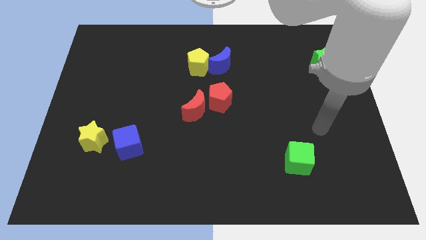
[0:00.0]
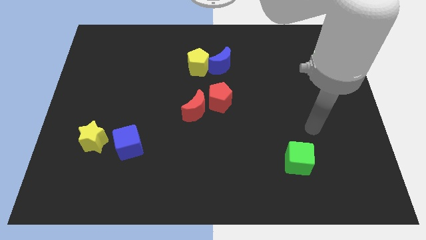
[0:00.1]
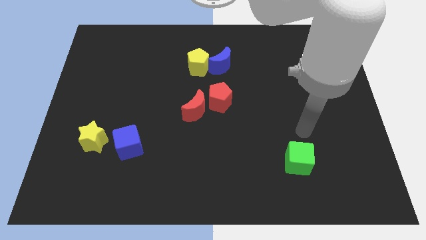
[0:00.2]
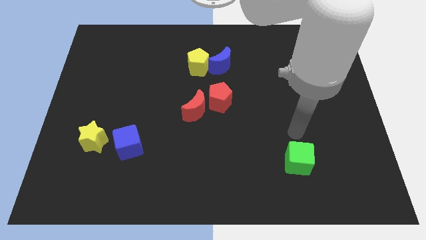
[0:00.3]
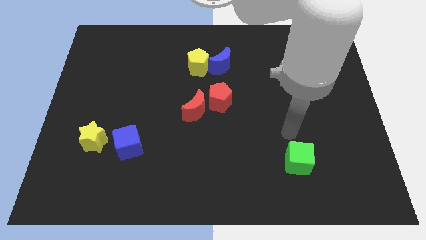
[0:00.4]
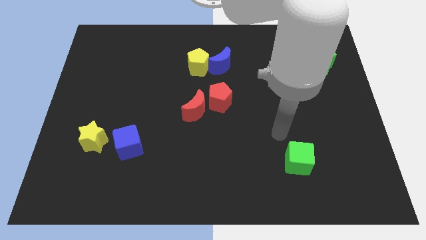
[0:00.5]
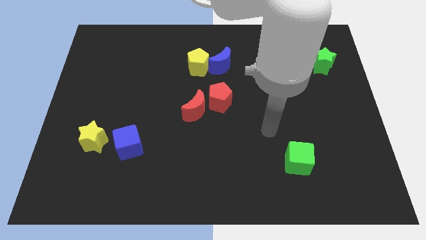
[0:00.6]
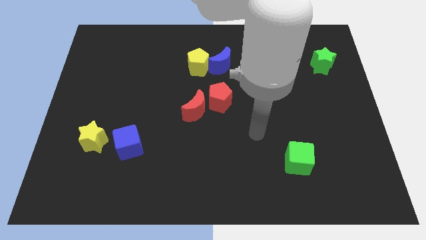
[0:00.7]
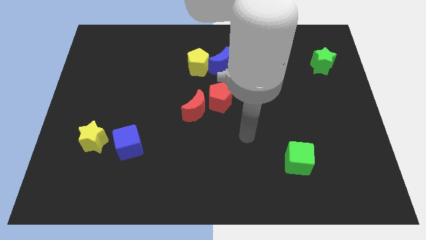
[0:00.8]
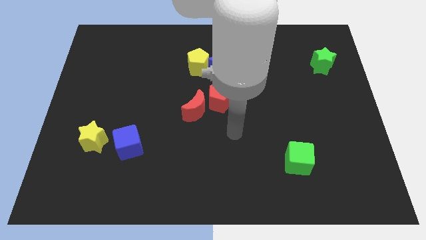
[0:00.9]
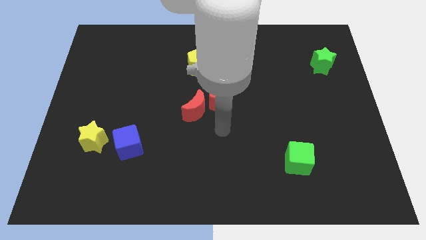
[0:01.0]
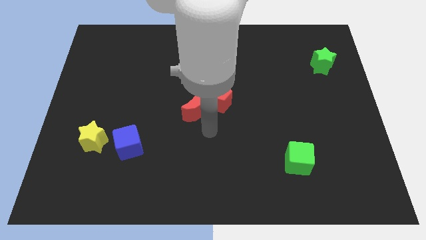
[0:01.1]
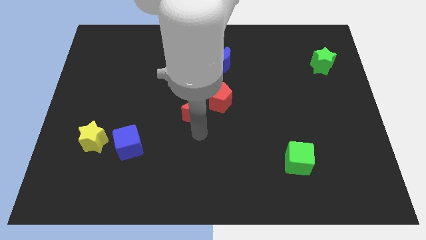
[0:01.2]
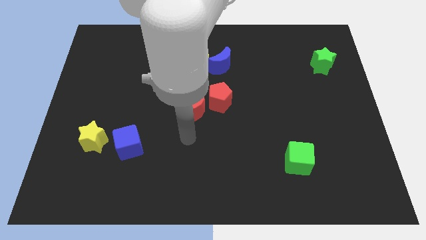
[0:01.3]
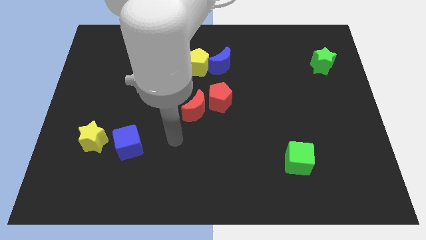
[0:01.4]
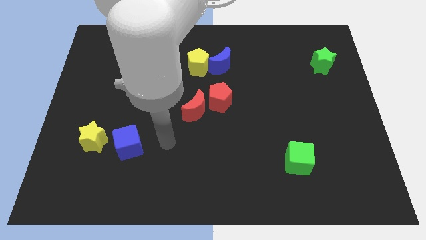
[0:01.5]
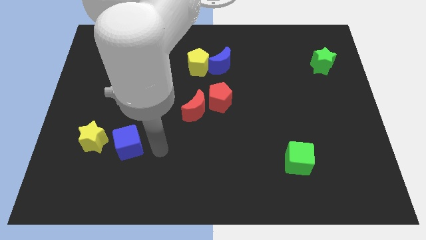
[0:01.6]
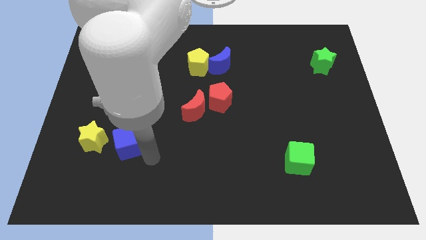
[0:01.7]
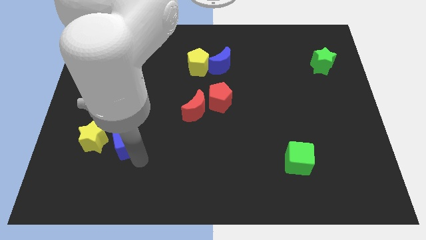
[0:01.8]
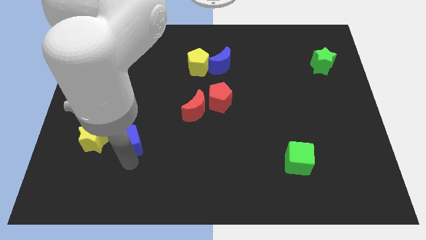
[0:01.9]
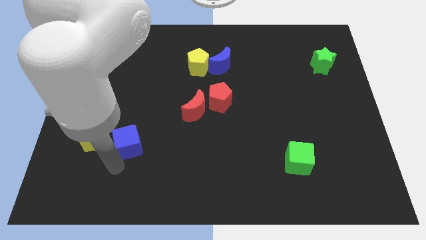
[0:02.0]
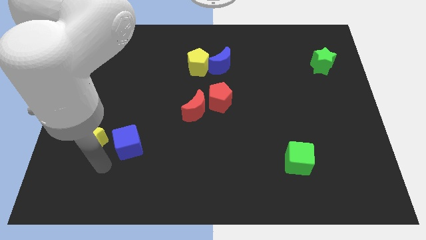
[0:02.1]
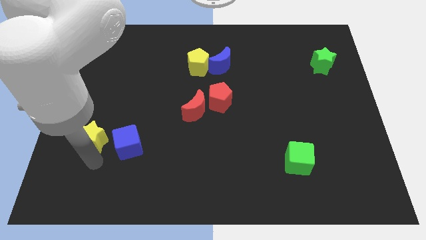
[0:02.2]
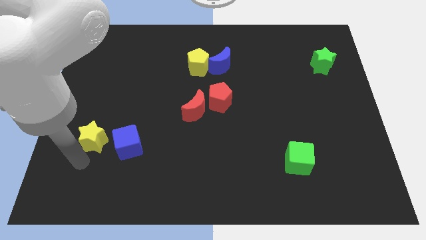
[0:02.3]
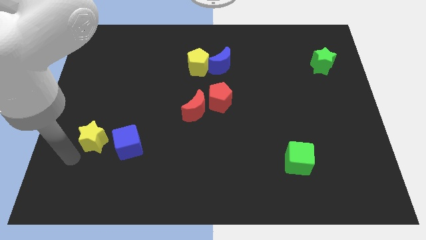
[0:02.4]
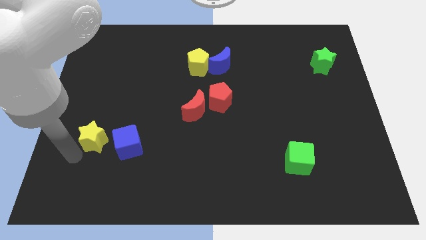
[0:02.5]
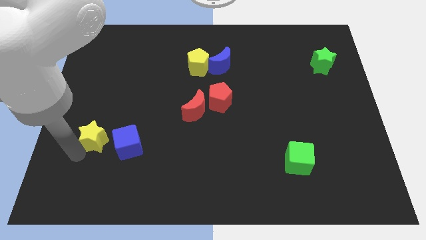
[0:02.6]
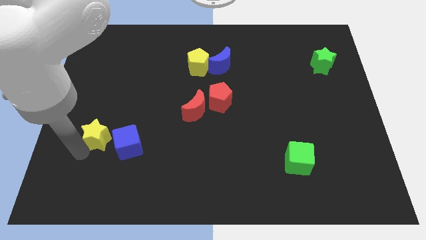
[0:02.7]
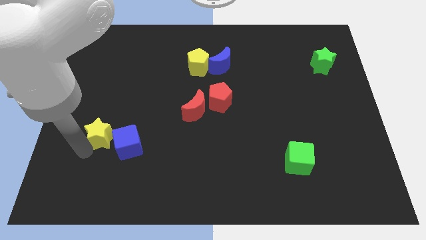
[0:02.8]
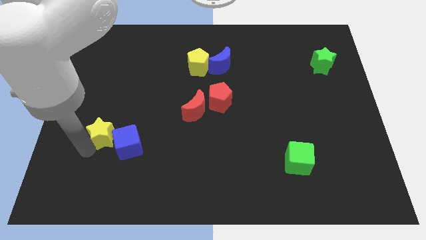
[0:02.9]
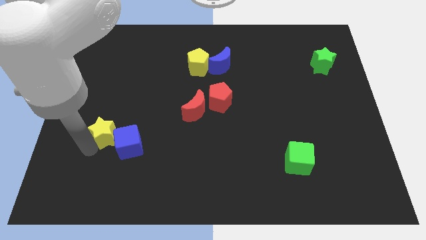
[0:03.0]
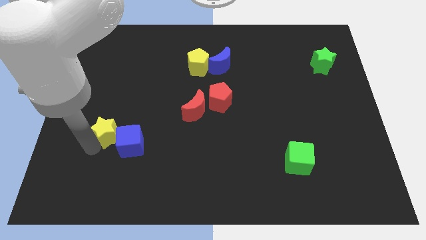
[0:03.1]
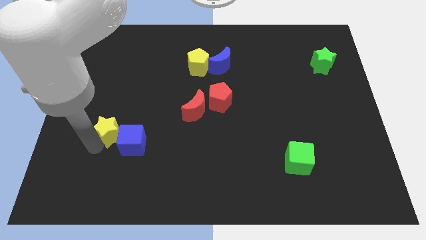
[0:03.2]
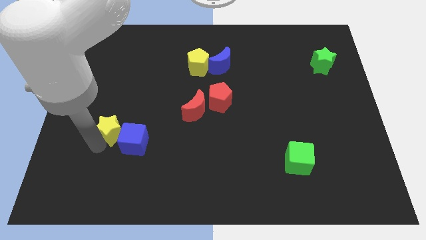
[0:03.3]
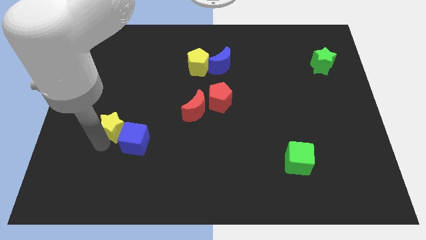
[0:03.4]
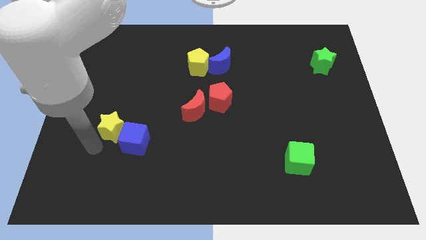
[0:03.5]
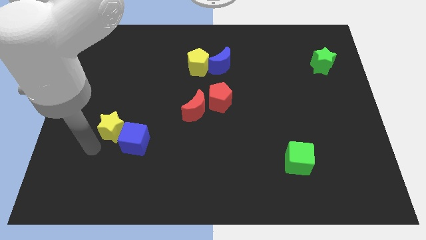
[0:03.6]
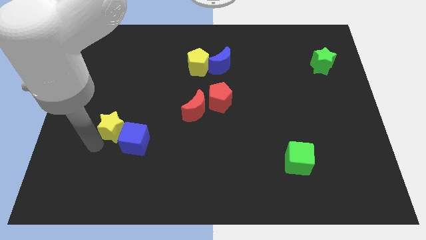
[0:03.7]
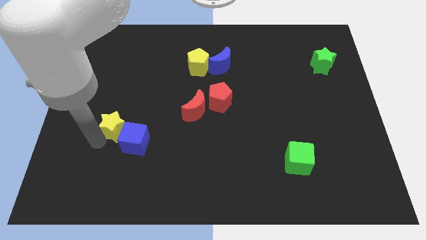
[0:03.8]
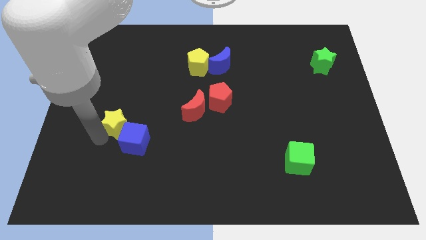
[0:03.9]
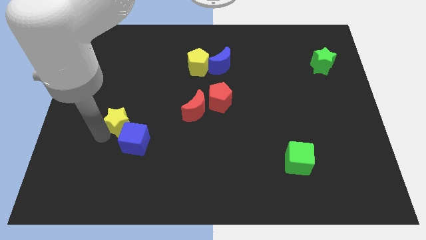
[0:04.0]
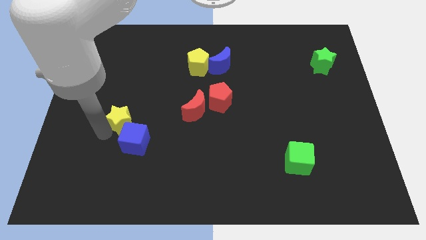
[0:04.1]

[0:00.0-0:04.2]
move the yellow star up and right diagonally a bit

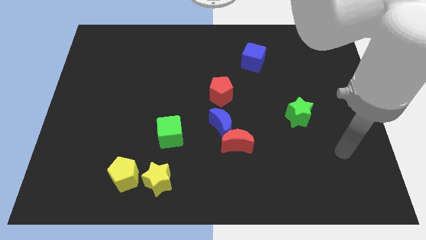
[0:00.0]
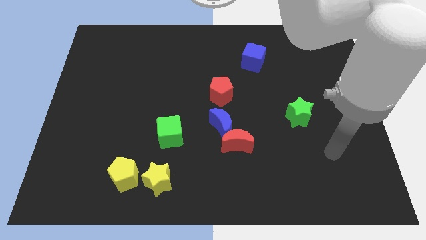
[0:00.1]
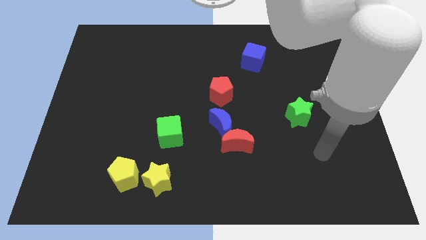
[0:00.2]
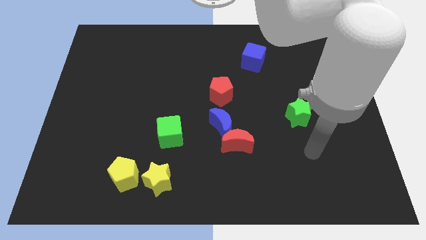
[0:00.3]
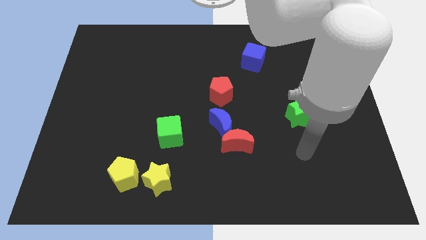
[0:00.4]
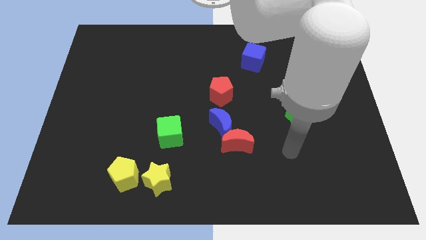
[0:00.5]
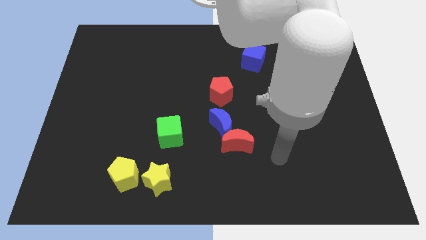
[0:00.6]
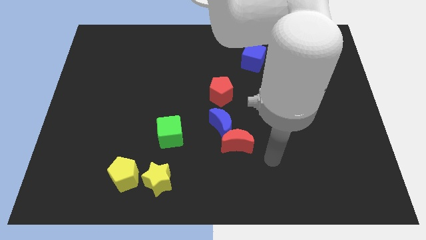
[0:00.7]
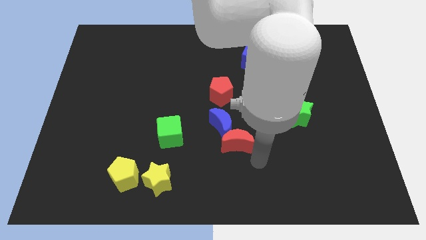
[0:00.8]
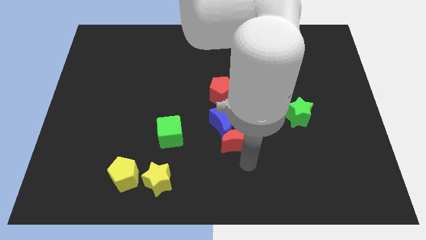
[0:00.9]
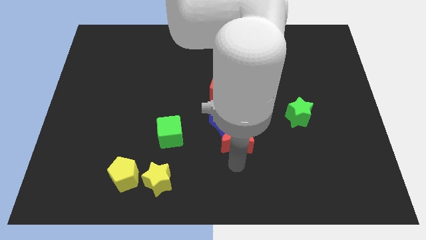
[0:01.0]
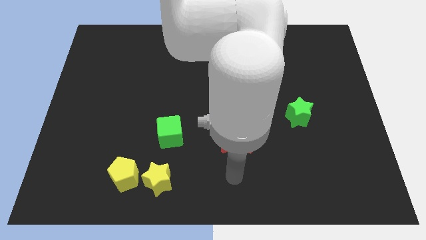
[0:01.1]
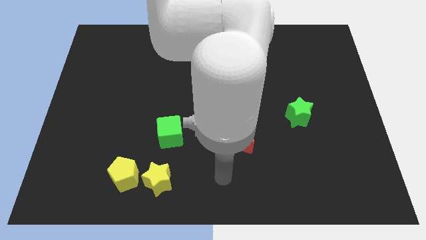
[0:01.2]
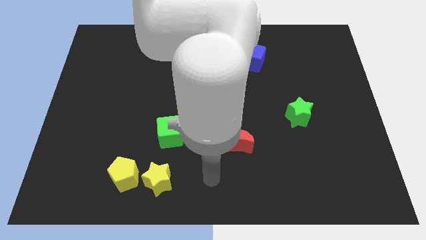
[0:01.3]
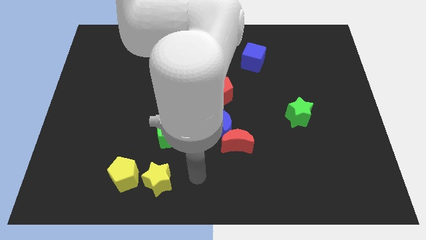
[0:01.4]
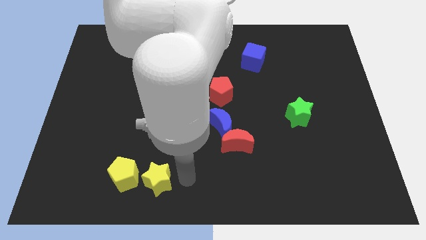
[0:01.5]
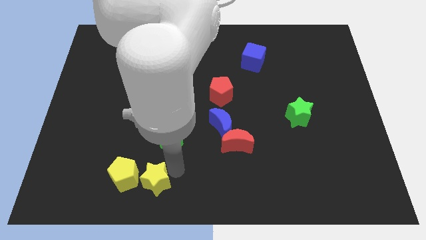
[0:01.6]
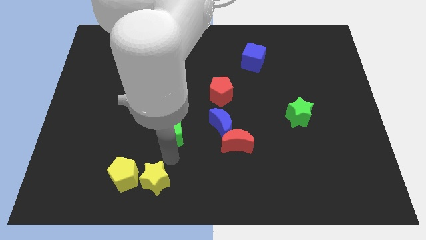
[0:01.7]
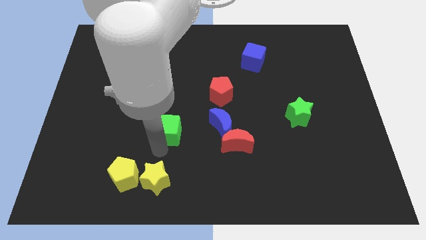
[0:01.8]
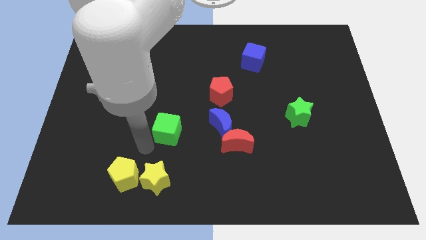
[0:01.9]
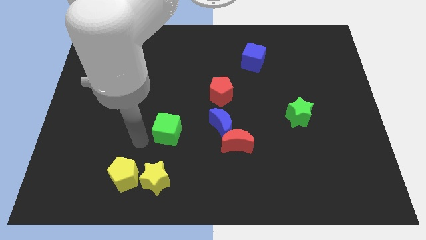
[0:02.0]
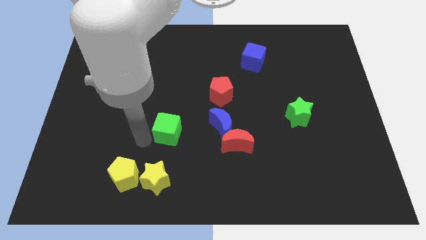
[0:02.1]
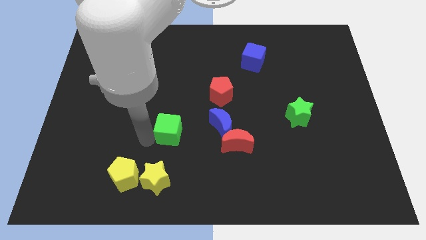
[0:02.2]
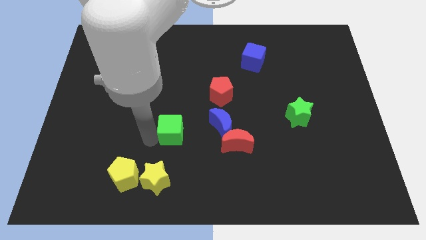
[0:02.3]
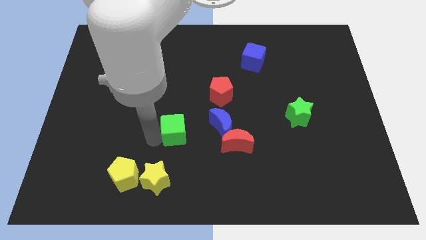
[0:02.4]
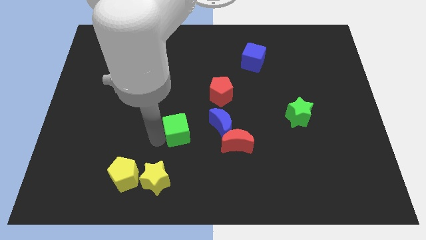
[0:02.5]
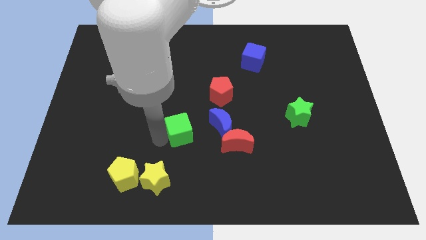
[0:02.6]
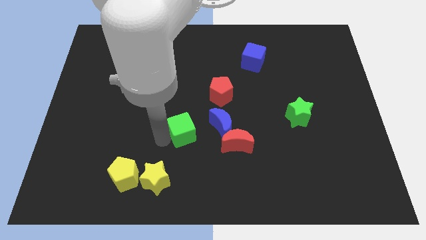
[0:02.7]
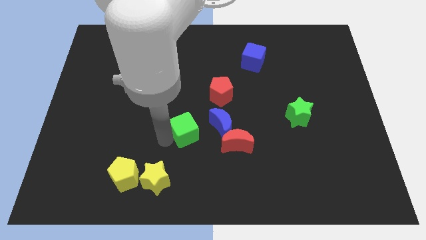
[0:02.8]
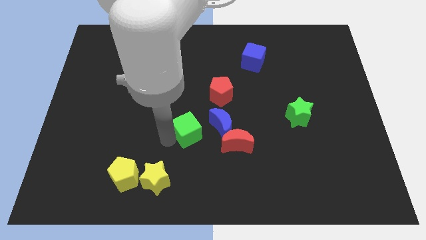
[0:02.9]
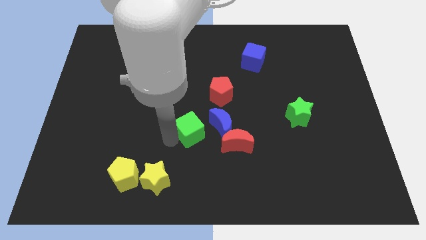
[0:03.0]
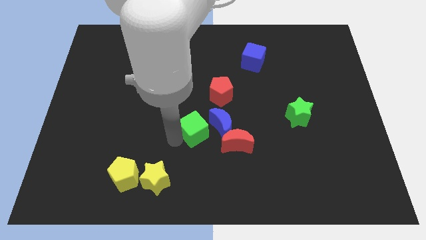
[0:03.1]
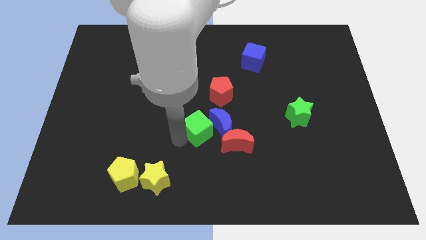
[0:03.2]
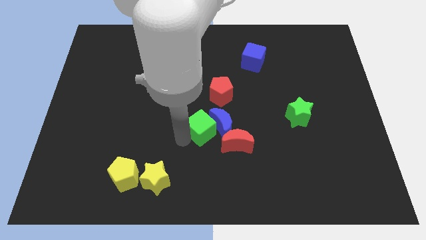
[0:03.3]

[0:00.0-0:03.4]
slightly push the green cube right

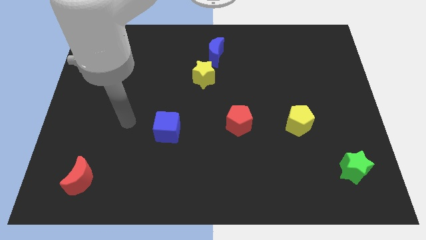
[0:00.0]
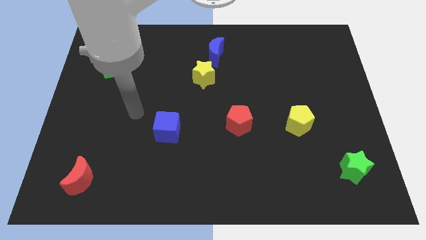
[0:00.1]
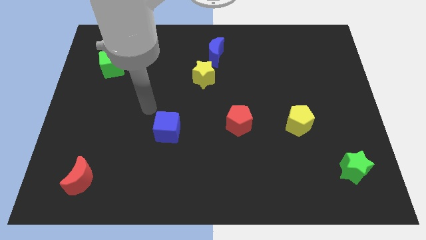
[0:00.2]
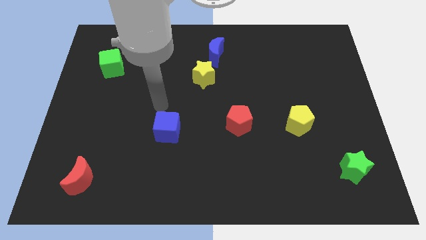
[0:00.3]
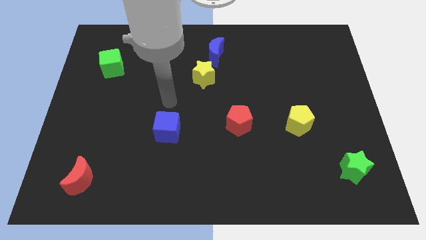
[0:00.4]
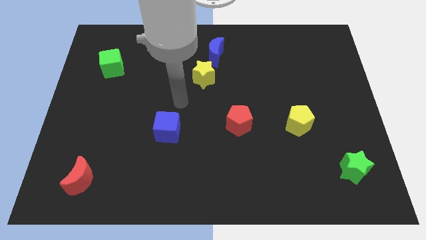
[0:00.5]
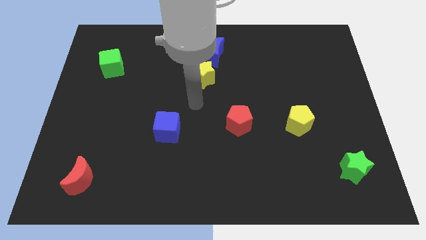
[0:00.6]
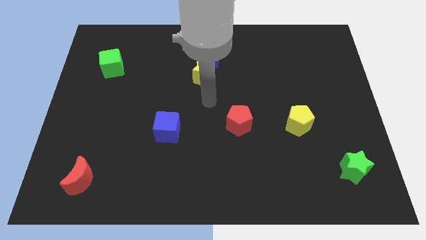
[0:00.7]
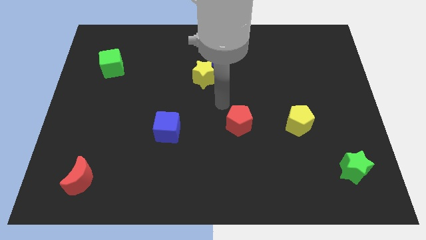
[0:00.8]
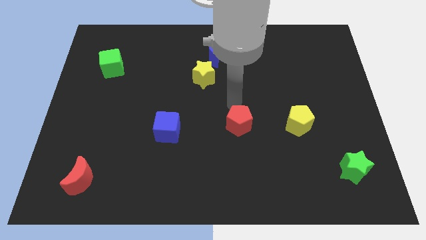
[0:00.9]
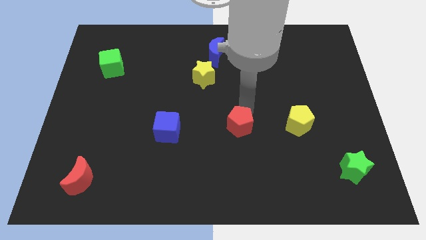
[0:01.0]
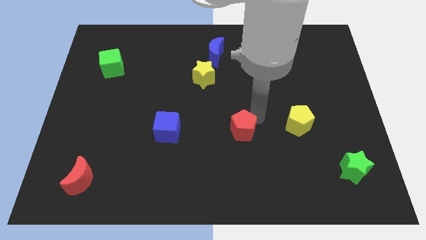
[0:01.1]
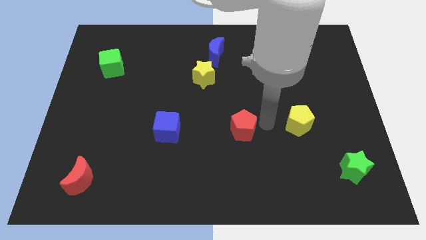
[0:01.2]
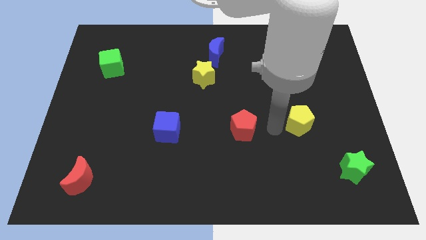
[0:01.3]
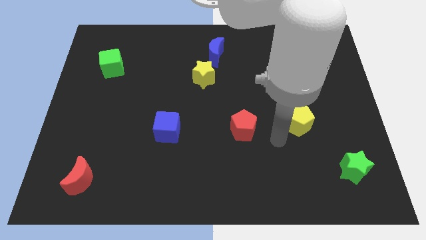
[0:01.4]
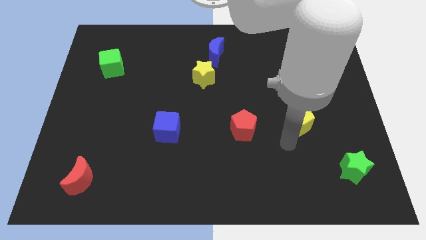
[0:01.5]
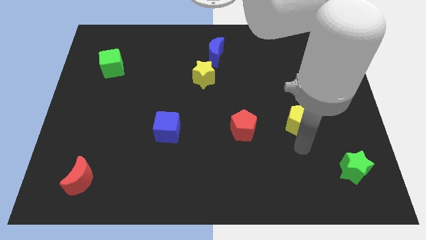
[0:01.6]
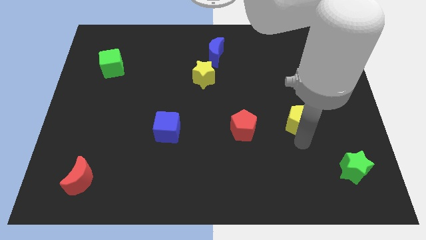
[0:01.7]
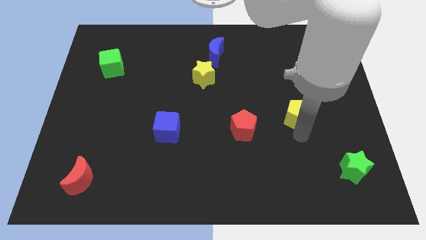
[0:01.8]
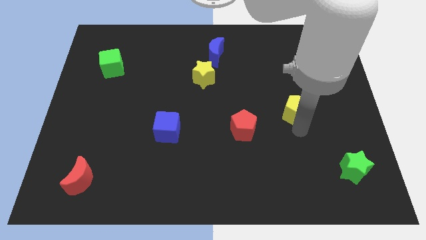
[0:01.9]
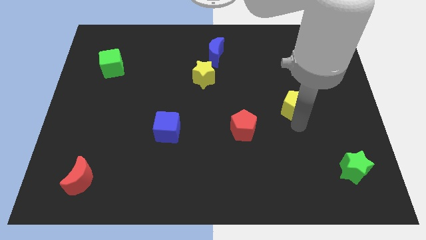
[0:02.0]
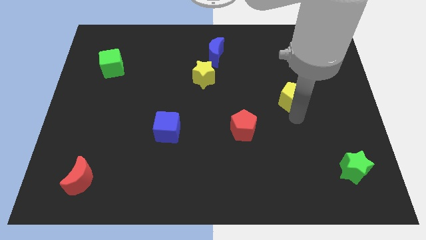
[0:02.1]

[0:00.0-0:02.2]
slide the yellow pentagon up slightly
